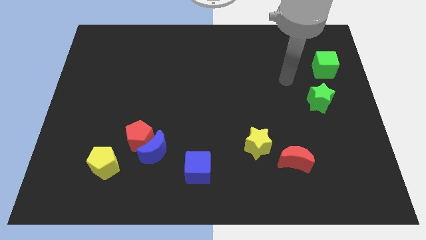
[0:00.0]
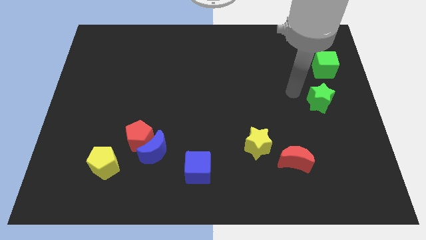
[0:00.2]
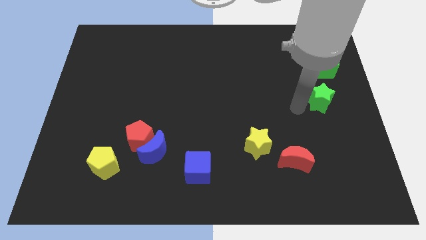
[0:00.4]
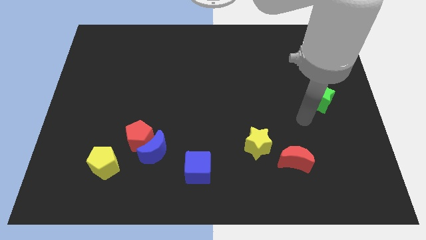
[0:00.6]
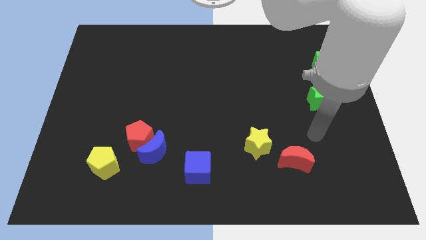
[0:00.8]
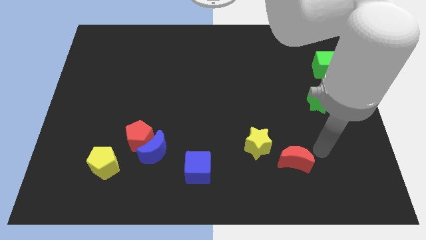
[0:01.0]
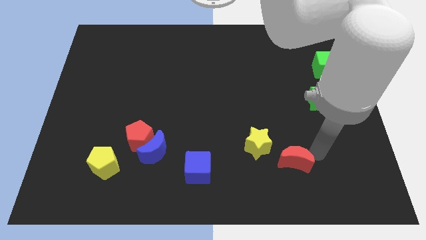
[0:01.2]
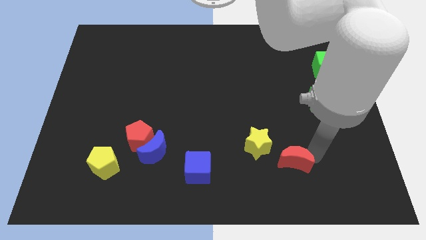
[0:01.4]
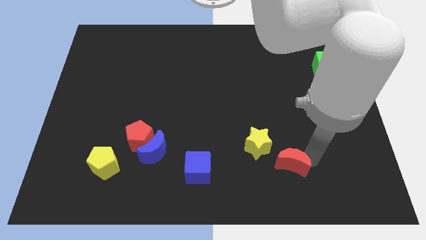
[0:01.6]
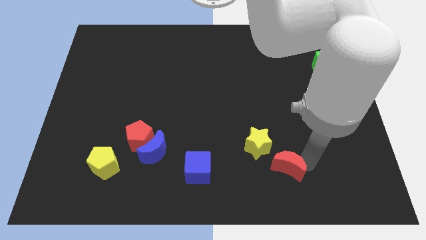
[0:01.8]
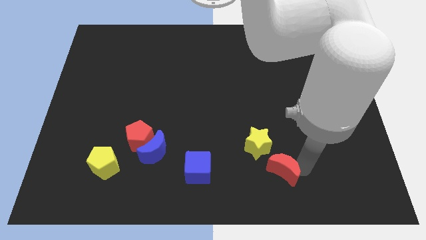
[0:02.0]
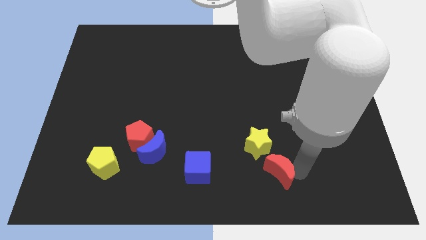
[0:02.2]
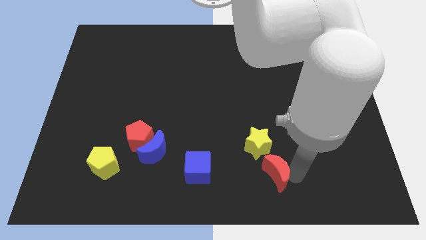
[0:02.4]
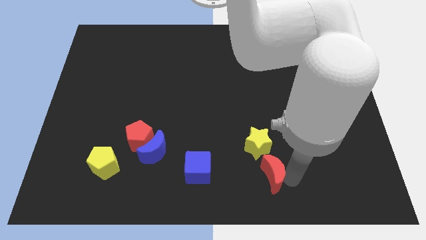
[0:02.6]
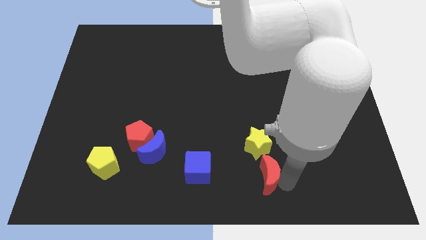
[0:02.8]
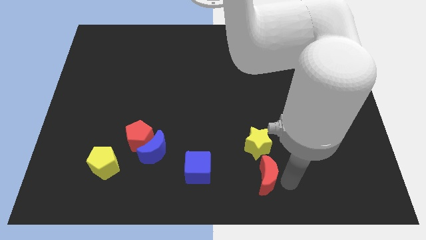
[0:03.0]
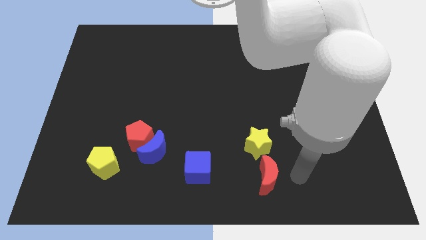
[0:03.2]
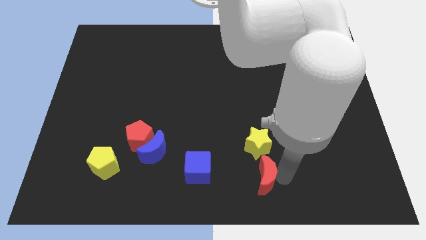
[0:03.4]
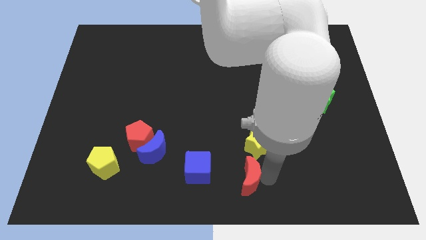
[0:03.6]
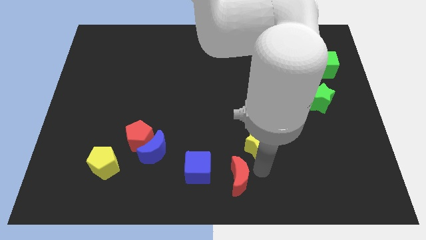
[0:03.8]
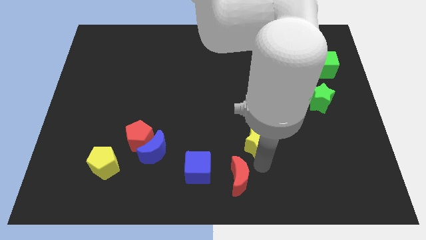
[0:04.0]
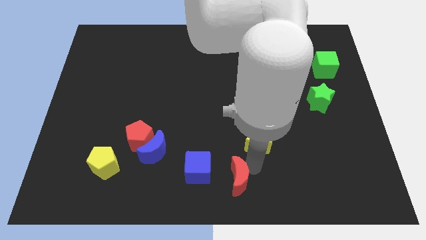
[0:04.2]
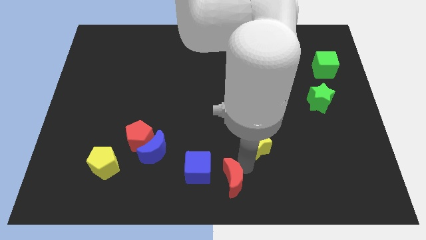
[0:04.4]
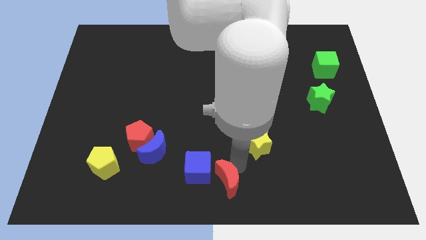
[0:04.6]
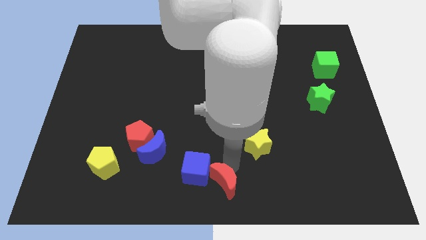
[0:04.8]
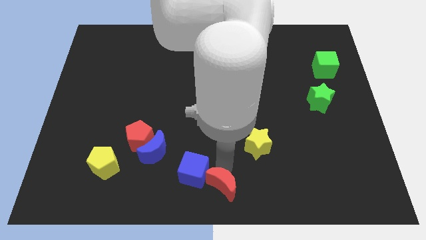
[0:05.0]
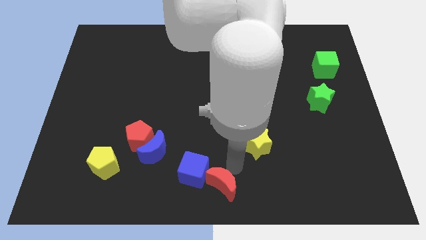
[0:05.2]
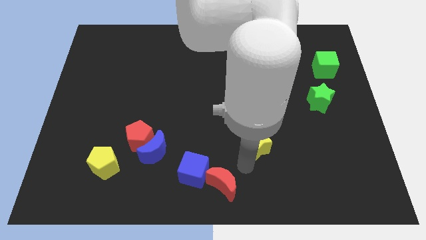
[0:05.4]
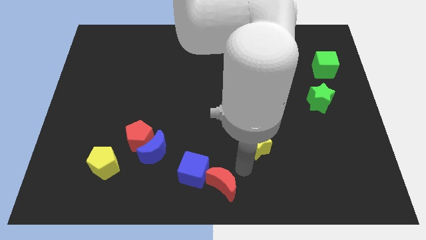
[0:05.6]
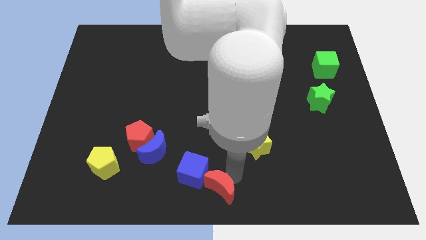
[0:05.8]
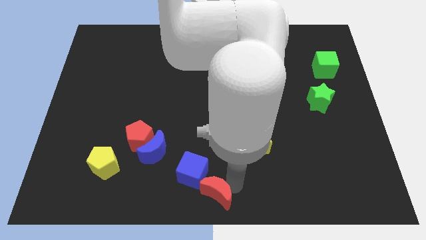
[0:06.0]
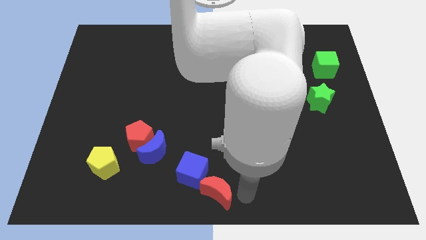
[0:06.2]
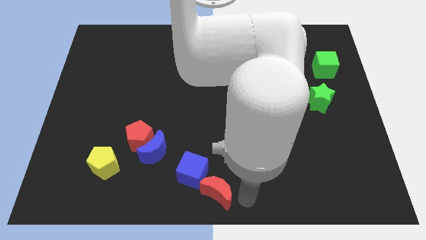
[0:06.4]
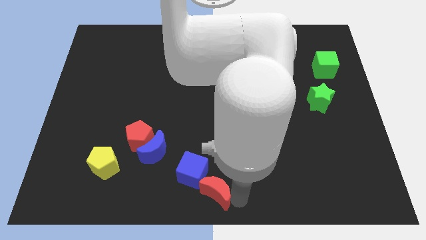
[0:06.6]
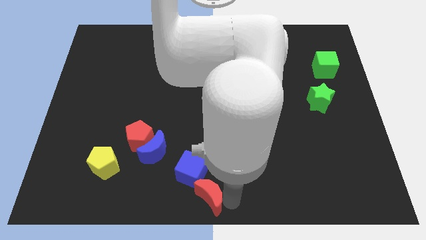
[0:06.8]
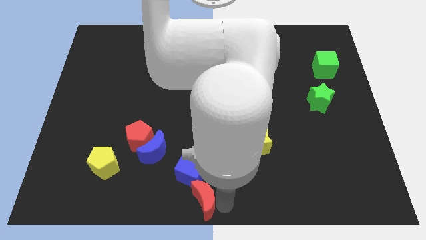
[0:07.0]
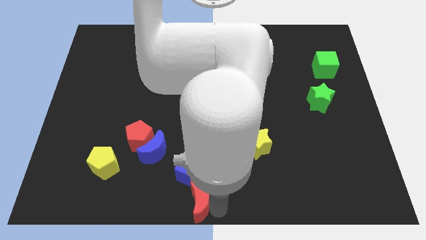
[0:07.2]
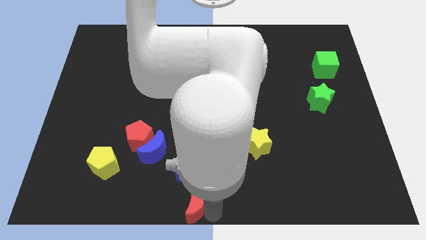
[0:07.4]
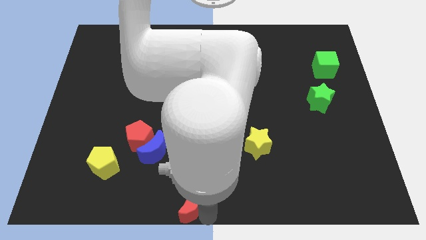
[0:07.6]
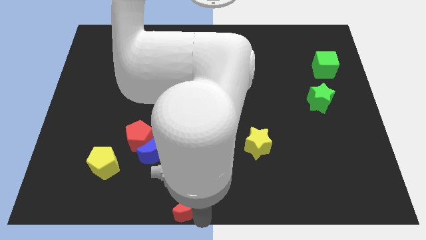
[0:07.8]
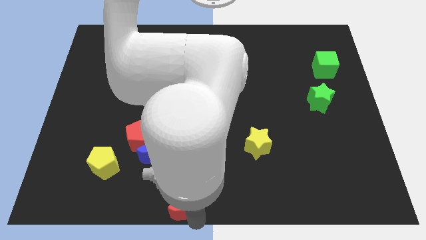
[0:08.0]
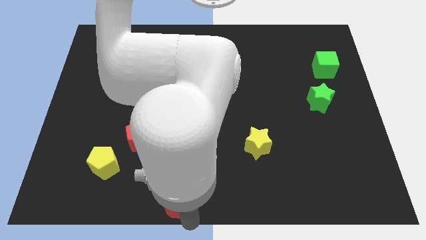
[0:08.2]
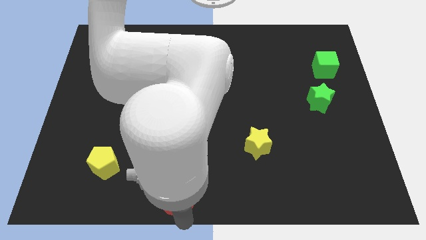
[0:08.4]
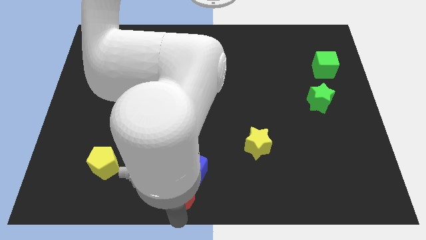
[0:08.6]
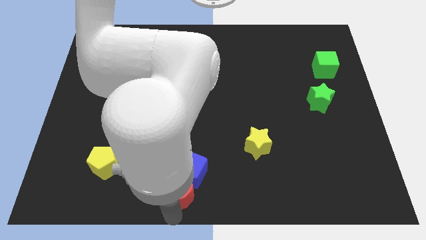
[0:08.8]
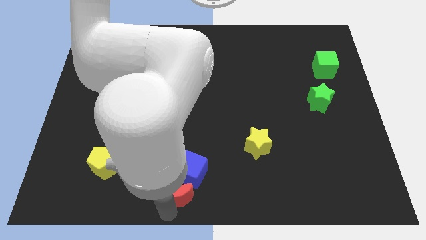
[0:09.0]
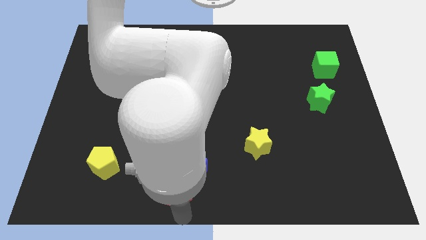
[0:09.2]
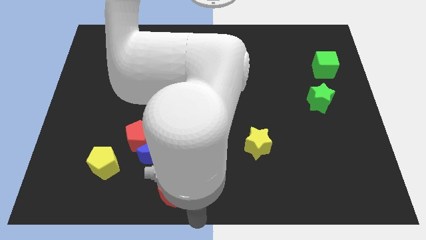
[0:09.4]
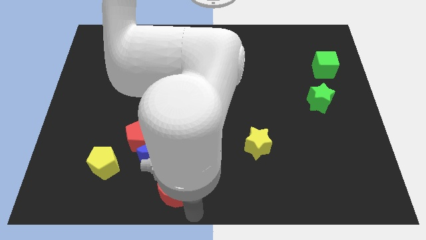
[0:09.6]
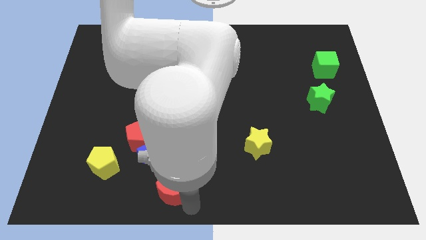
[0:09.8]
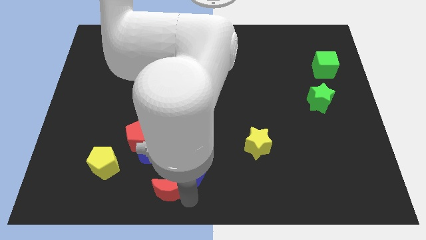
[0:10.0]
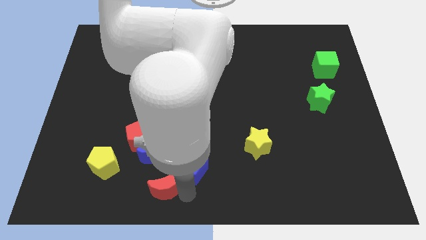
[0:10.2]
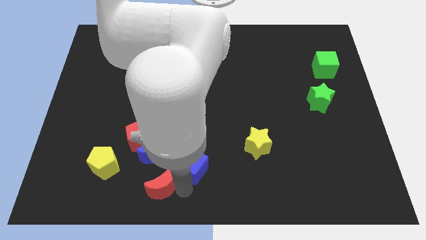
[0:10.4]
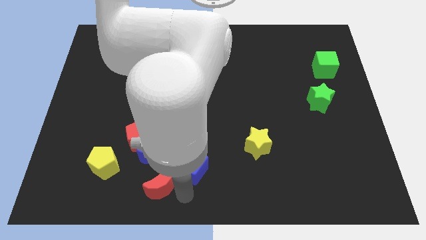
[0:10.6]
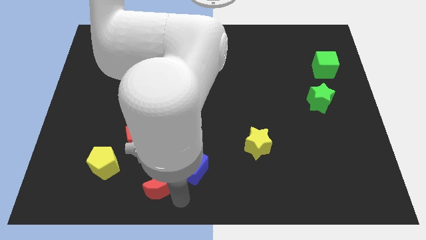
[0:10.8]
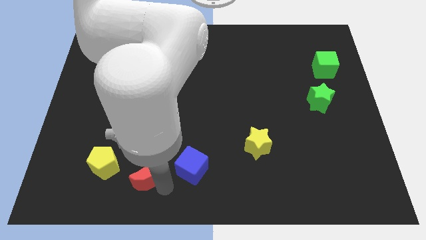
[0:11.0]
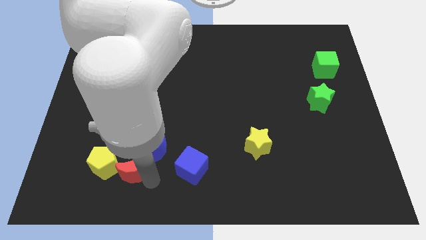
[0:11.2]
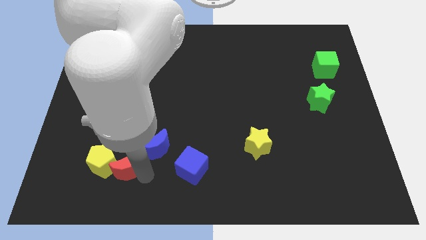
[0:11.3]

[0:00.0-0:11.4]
move the red moon close to the yellow pentagon

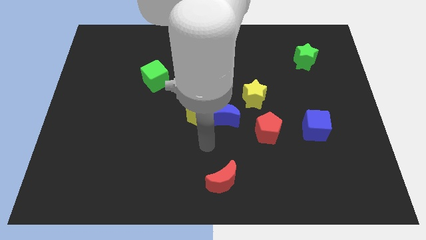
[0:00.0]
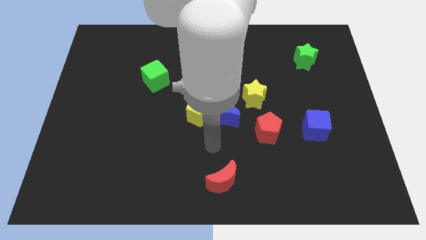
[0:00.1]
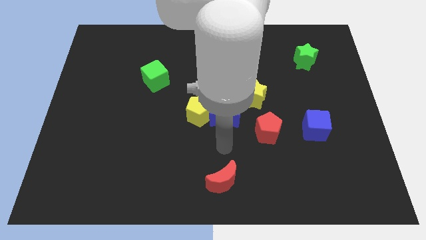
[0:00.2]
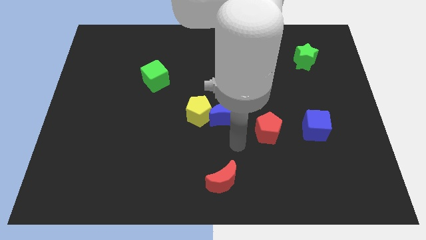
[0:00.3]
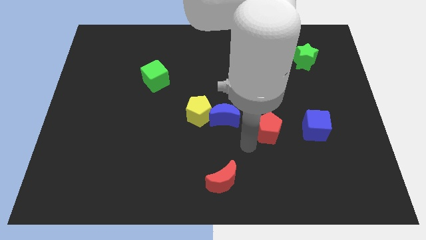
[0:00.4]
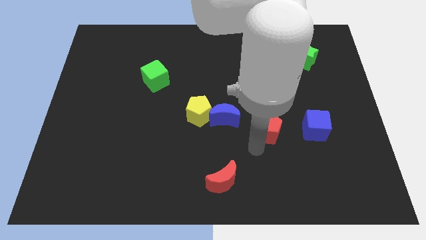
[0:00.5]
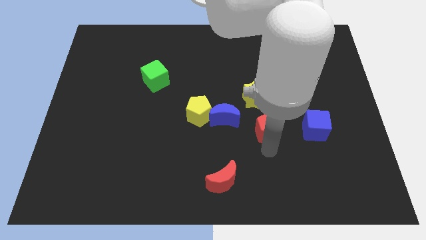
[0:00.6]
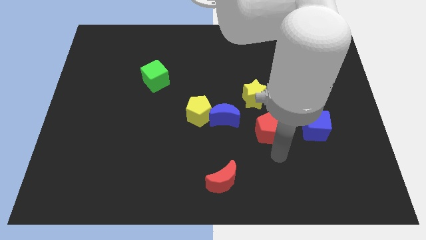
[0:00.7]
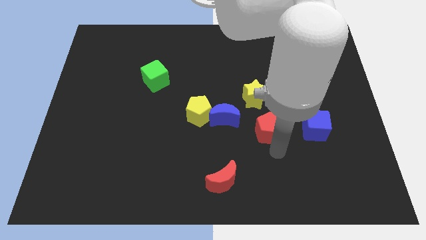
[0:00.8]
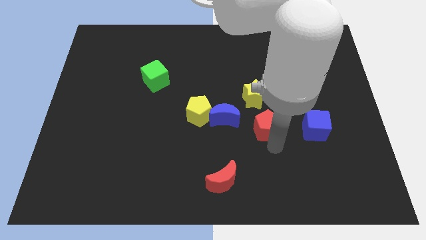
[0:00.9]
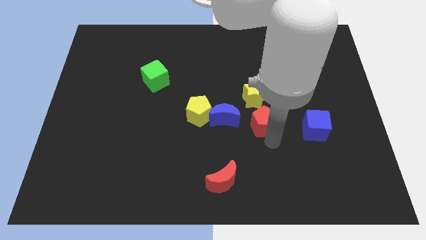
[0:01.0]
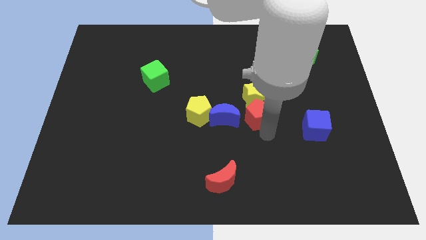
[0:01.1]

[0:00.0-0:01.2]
push the red pentagon towards the yellow star
